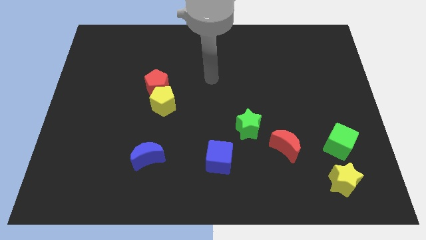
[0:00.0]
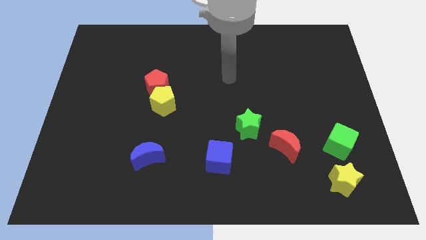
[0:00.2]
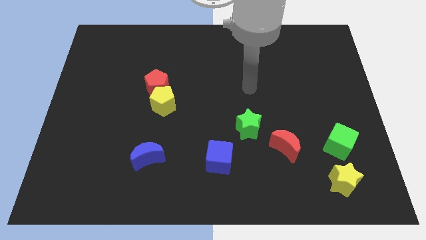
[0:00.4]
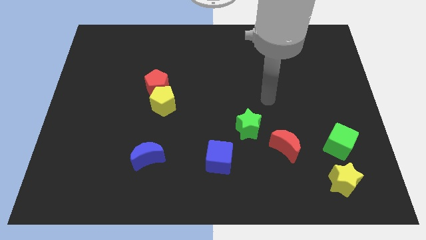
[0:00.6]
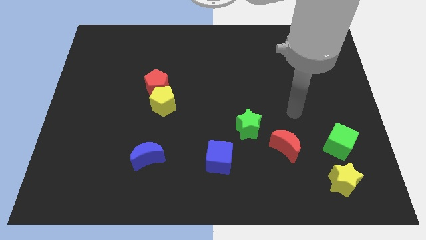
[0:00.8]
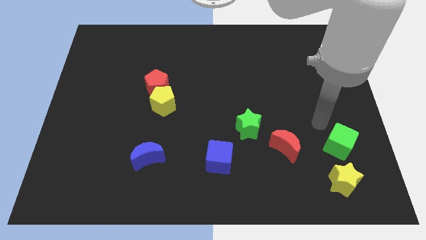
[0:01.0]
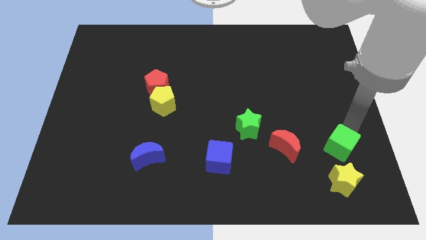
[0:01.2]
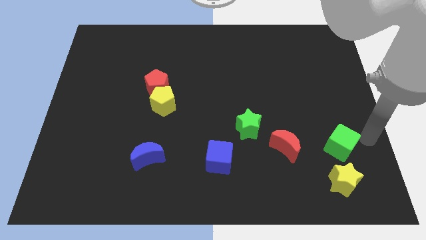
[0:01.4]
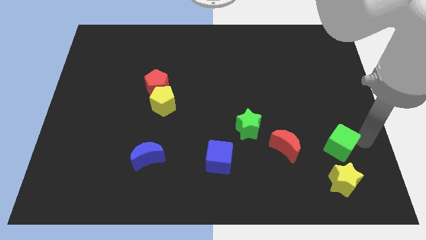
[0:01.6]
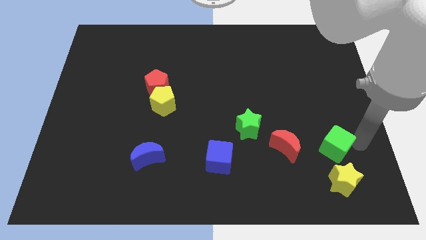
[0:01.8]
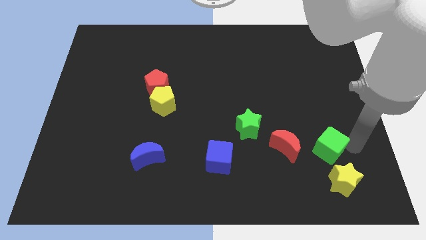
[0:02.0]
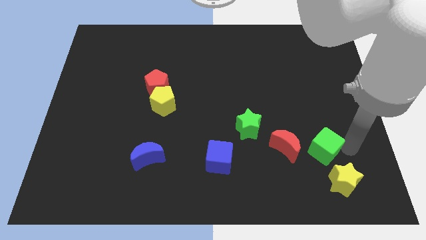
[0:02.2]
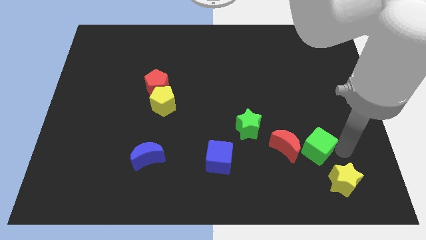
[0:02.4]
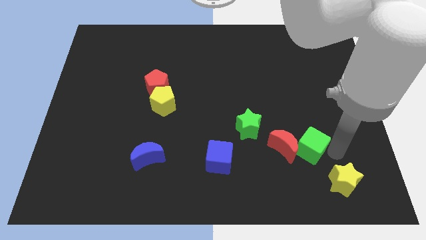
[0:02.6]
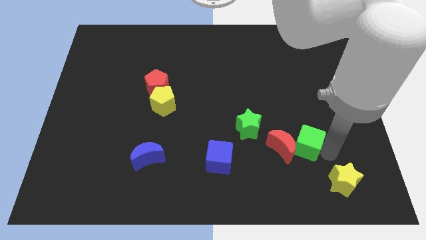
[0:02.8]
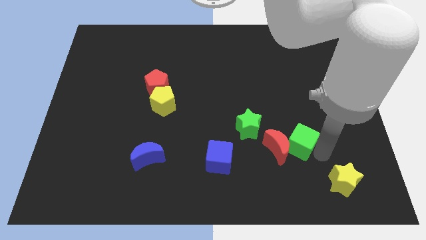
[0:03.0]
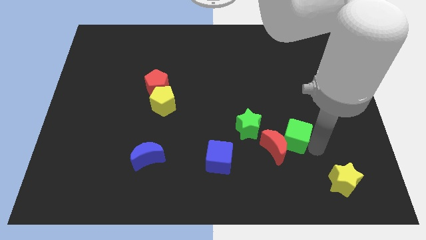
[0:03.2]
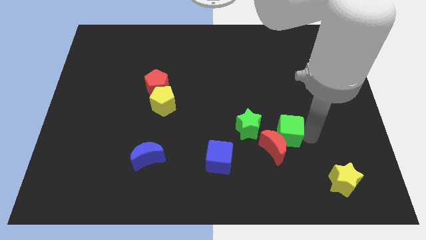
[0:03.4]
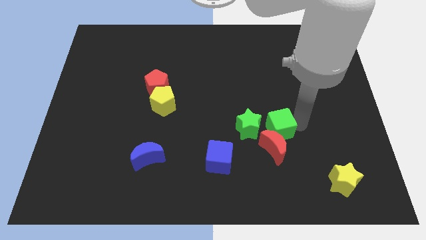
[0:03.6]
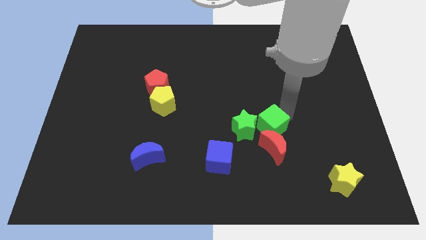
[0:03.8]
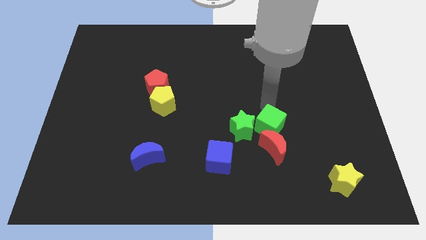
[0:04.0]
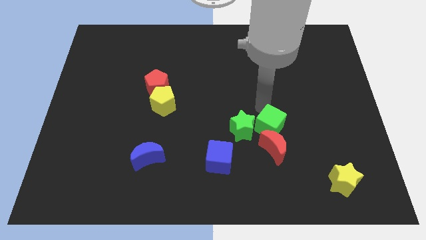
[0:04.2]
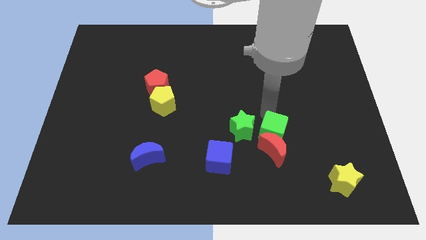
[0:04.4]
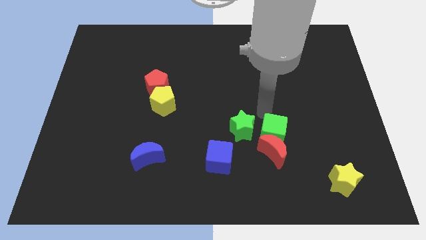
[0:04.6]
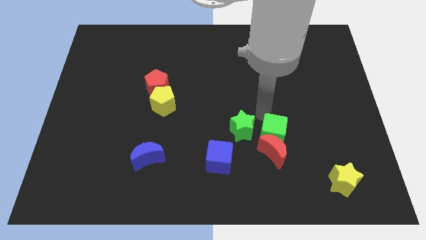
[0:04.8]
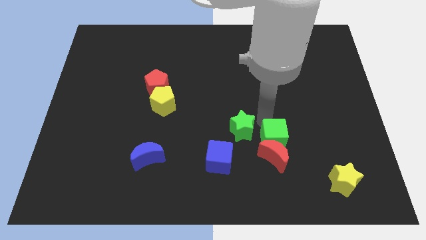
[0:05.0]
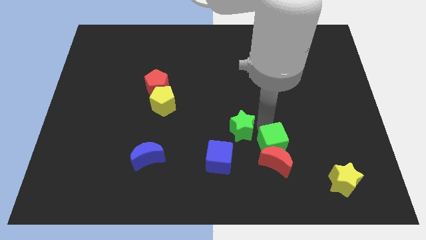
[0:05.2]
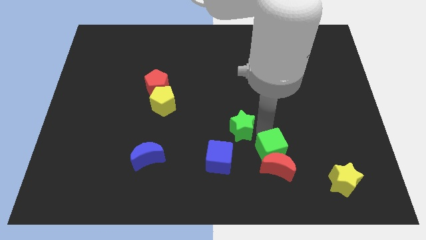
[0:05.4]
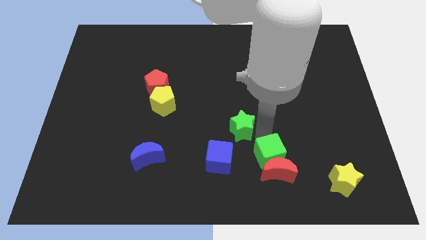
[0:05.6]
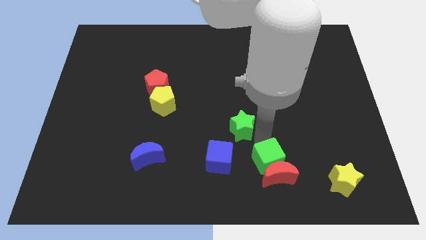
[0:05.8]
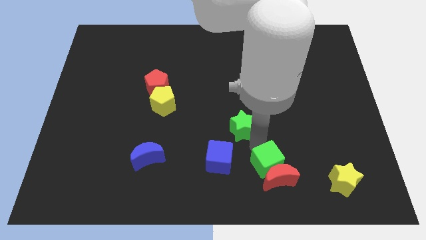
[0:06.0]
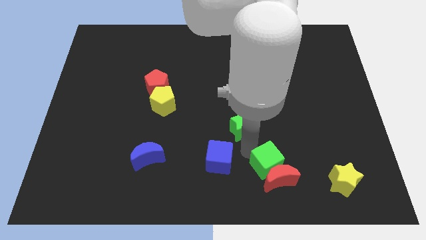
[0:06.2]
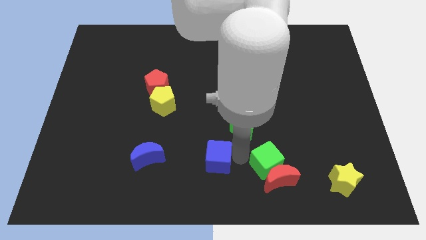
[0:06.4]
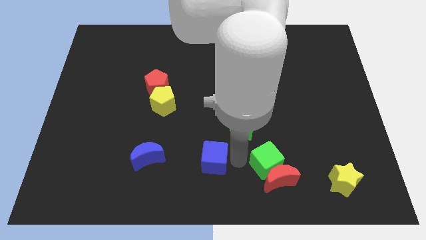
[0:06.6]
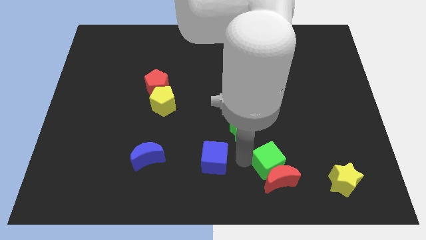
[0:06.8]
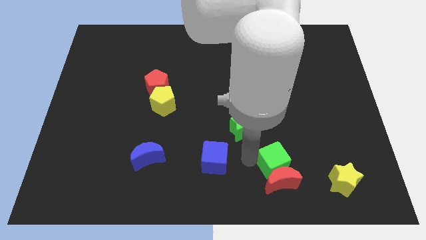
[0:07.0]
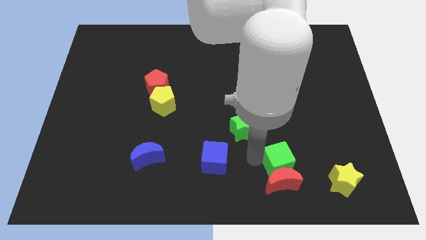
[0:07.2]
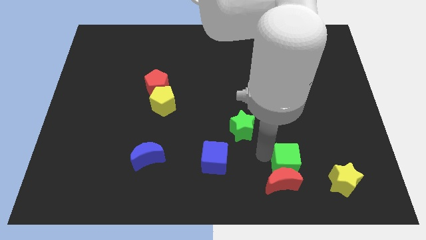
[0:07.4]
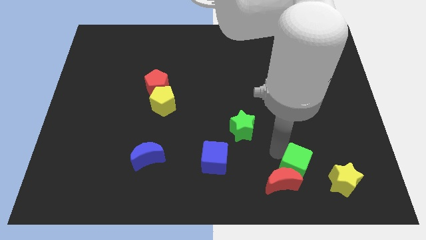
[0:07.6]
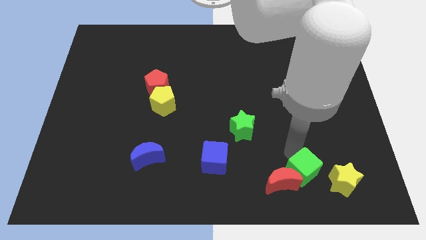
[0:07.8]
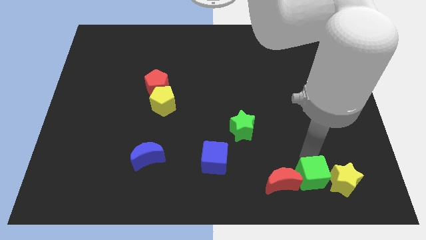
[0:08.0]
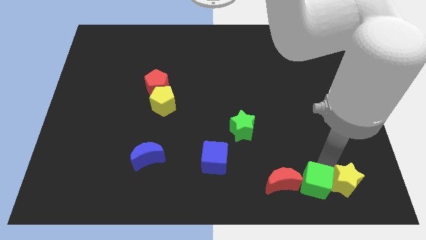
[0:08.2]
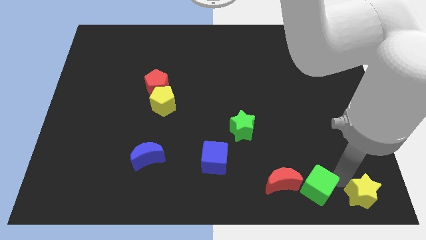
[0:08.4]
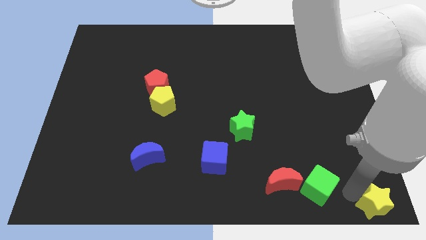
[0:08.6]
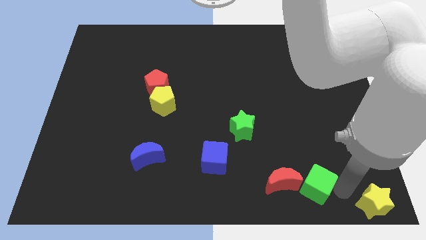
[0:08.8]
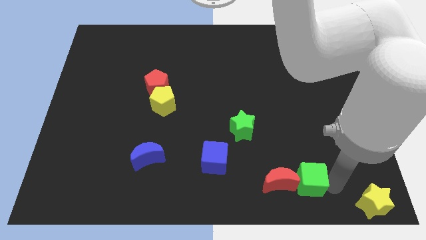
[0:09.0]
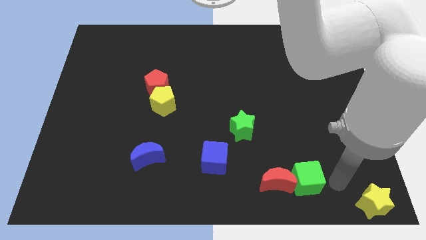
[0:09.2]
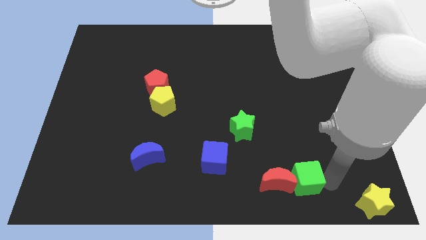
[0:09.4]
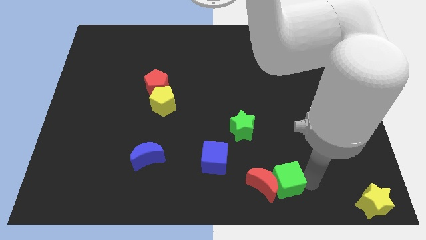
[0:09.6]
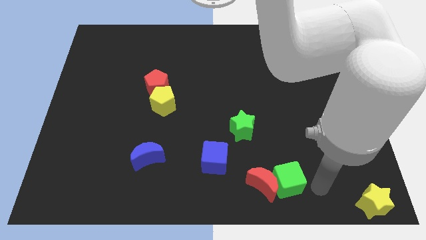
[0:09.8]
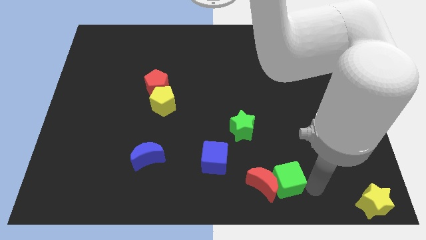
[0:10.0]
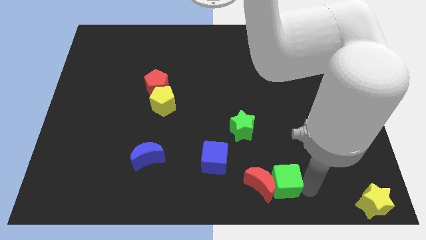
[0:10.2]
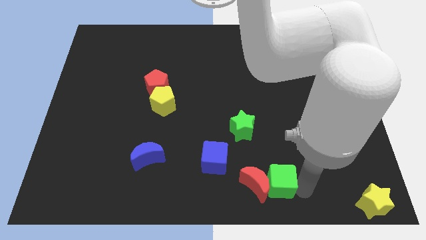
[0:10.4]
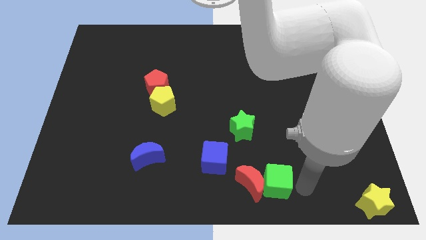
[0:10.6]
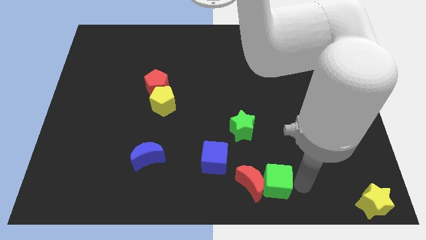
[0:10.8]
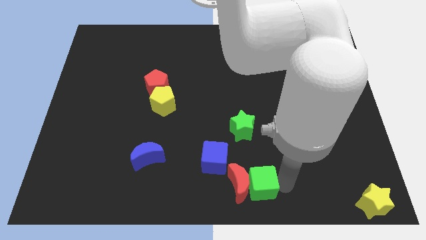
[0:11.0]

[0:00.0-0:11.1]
put the green cube diagonally down and to the right of the blue cube

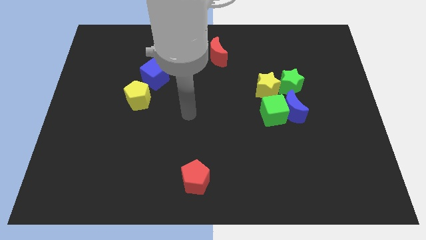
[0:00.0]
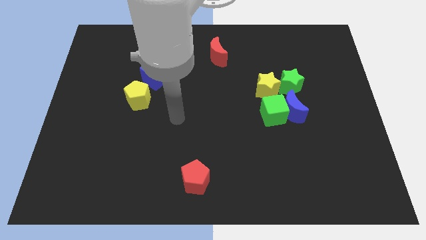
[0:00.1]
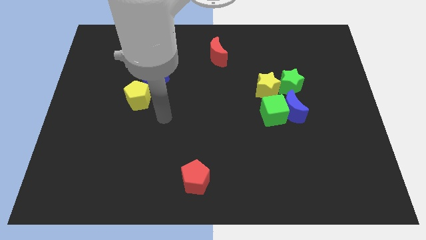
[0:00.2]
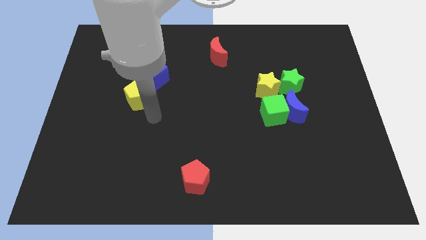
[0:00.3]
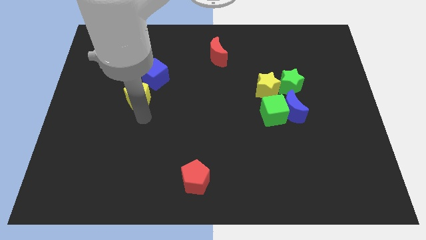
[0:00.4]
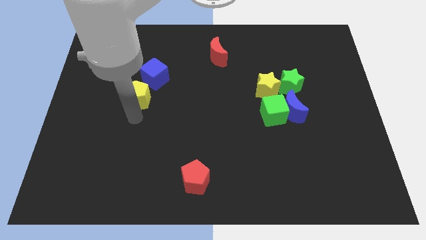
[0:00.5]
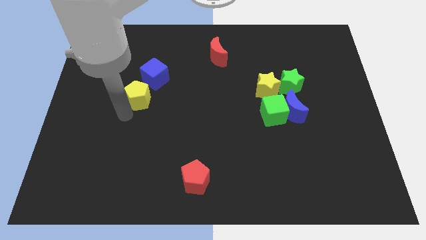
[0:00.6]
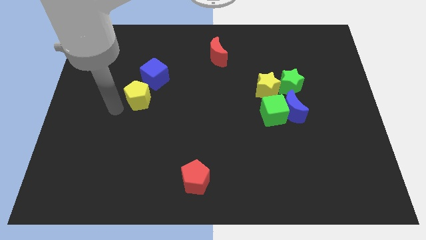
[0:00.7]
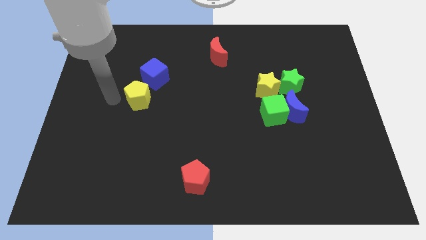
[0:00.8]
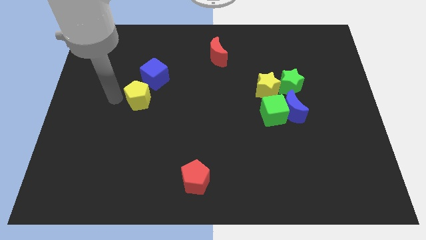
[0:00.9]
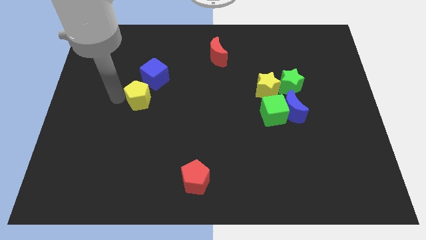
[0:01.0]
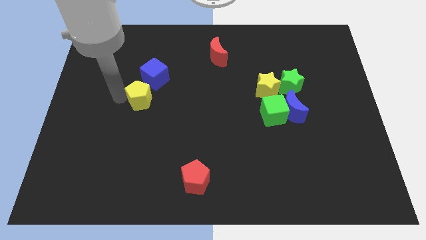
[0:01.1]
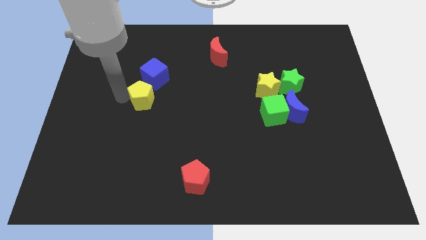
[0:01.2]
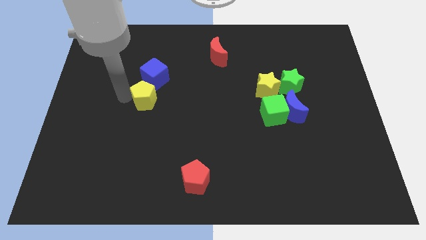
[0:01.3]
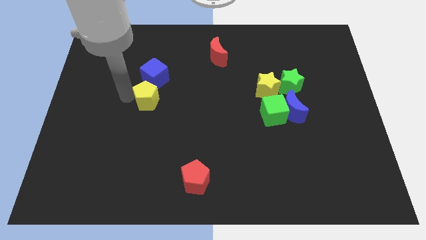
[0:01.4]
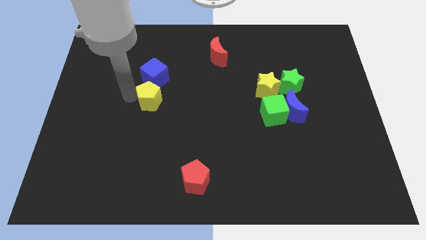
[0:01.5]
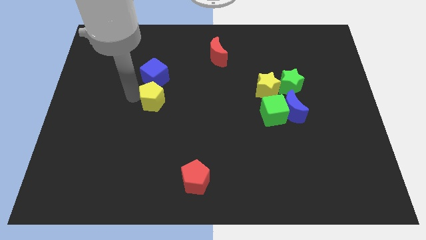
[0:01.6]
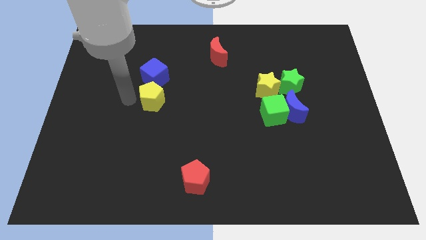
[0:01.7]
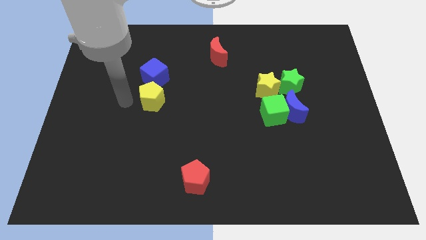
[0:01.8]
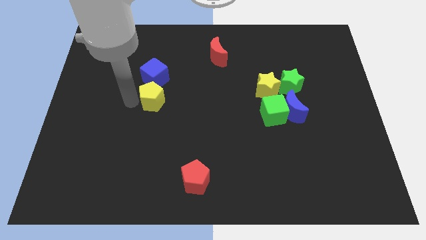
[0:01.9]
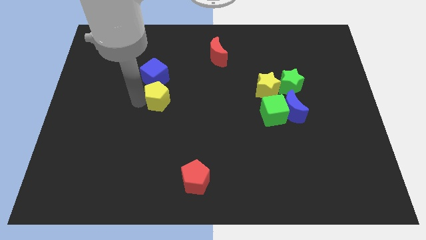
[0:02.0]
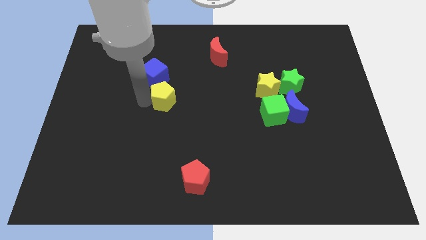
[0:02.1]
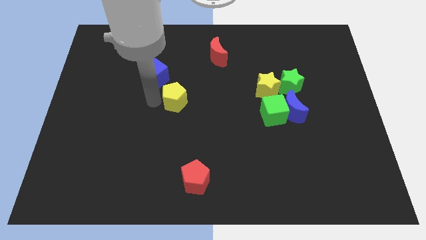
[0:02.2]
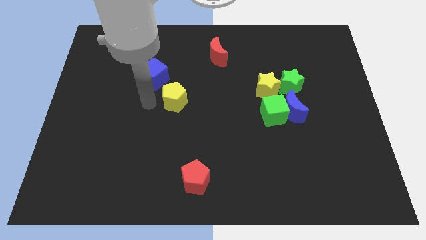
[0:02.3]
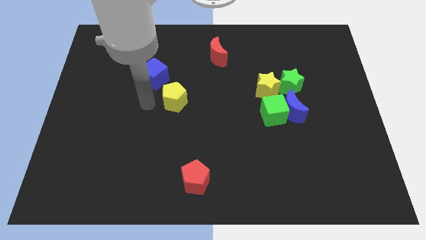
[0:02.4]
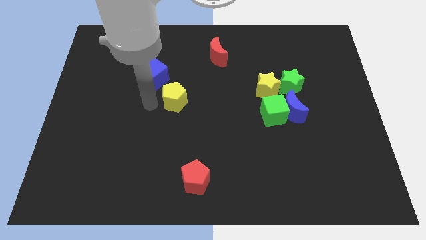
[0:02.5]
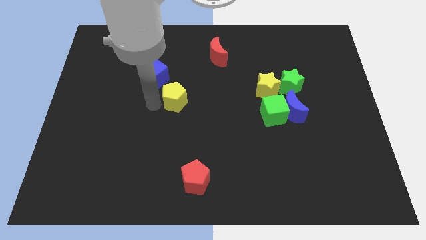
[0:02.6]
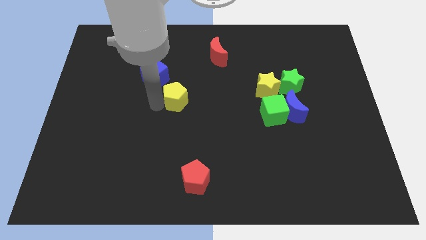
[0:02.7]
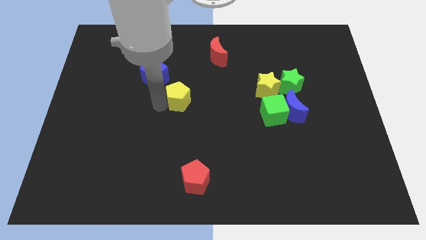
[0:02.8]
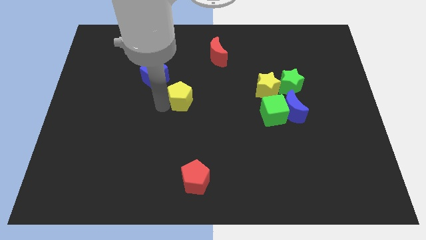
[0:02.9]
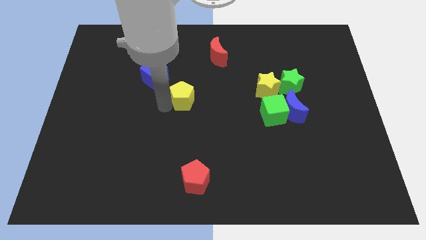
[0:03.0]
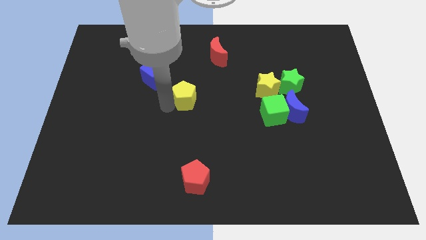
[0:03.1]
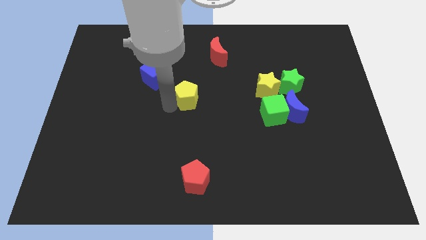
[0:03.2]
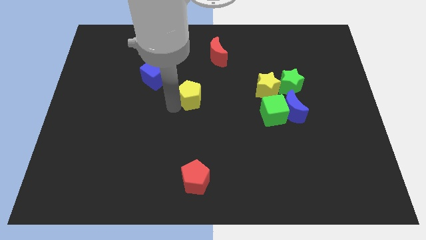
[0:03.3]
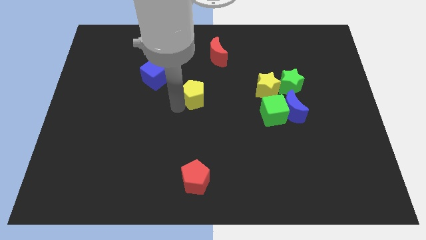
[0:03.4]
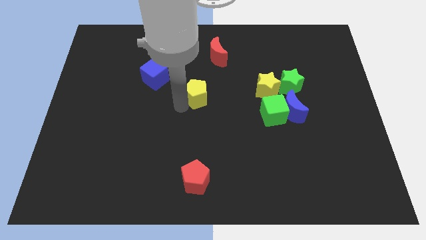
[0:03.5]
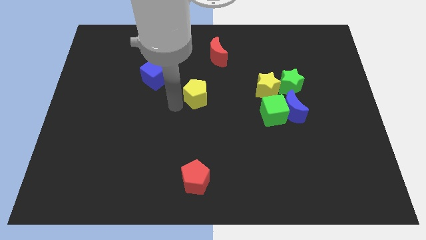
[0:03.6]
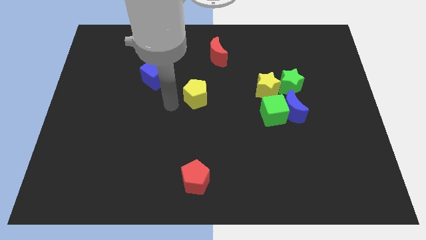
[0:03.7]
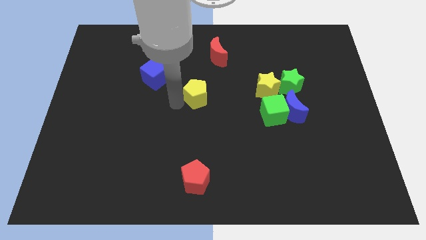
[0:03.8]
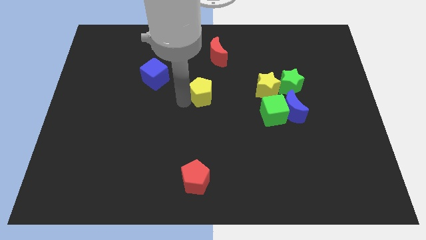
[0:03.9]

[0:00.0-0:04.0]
move the yellow pentagon to the left of the yellow star
